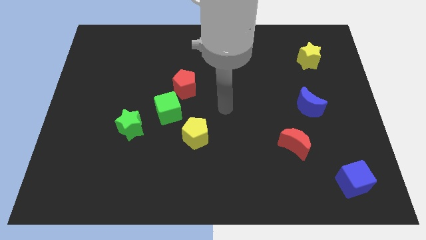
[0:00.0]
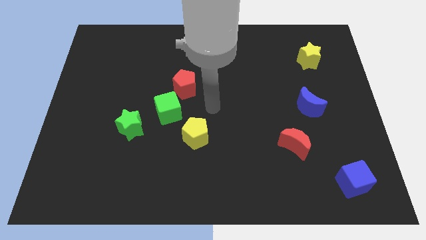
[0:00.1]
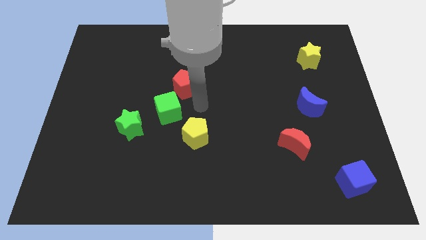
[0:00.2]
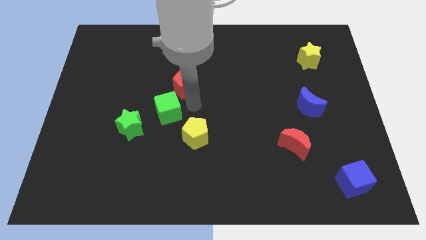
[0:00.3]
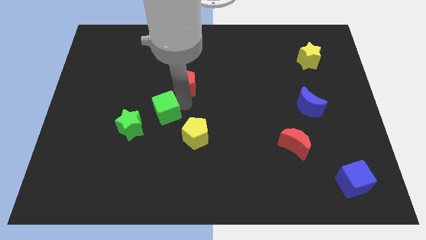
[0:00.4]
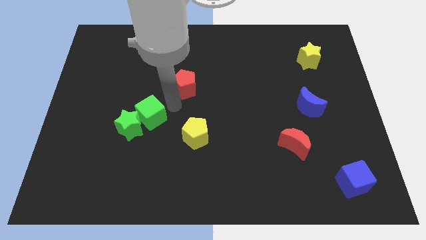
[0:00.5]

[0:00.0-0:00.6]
pull the red pentagon apart from the green cube

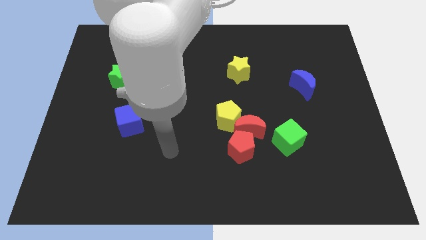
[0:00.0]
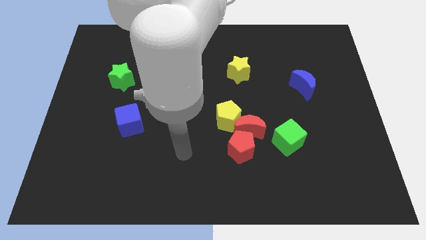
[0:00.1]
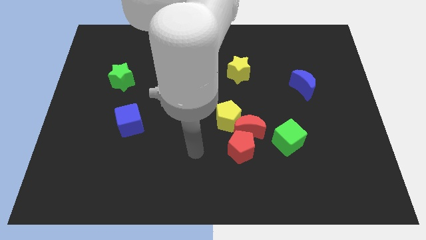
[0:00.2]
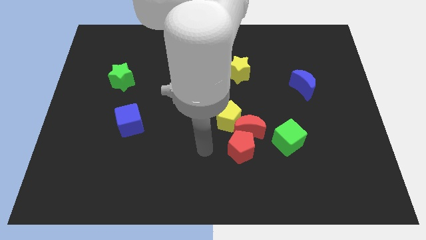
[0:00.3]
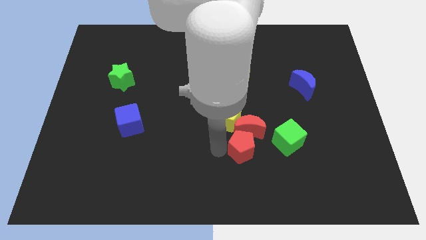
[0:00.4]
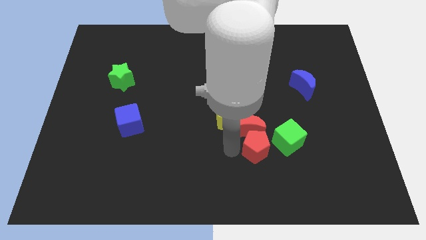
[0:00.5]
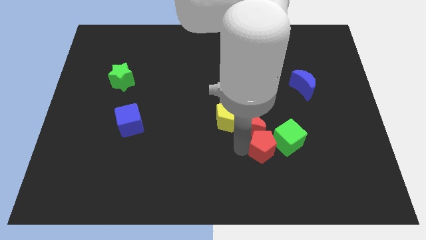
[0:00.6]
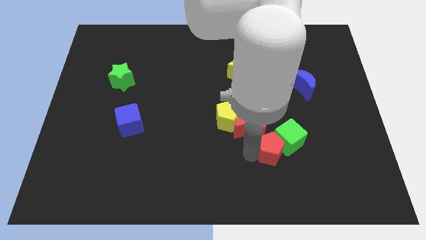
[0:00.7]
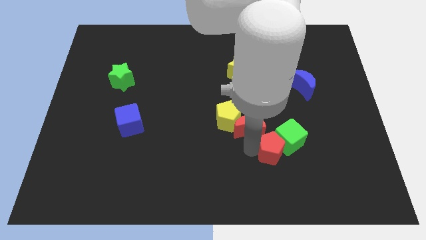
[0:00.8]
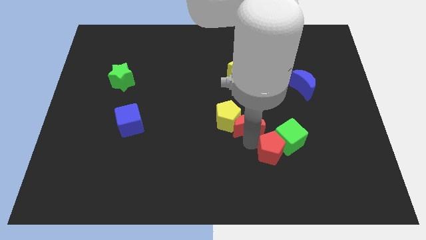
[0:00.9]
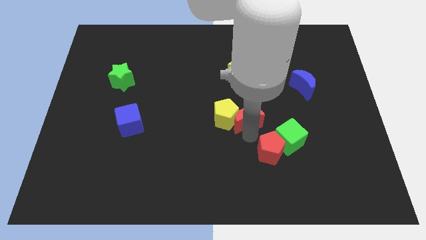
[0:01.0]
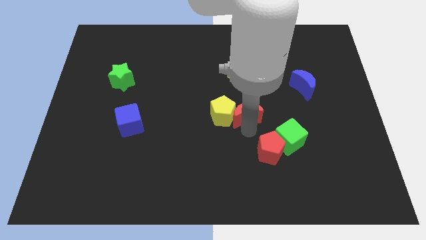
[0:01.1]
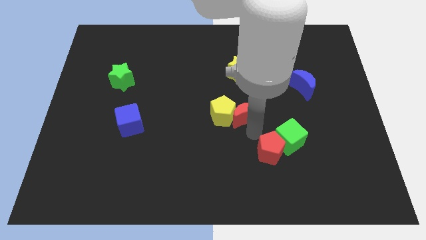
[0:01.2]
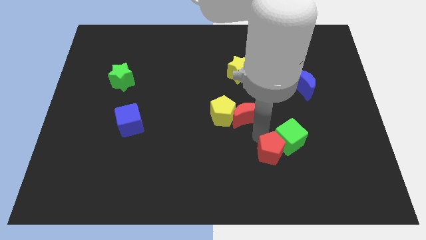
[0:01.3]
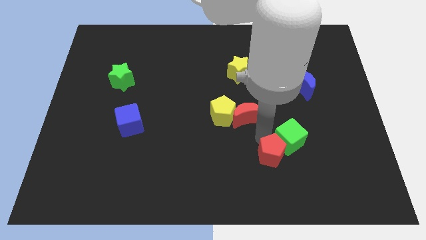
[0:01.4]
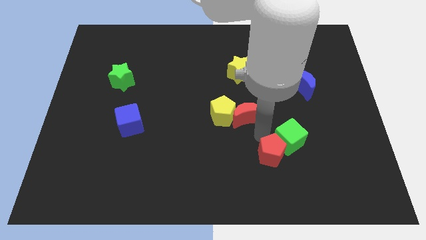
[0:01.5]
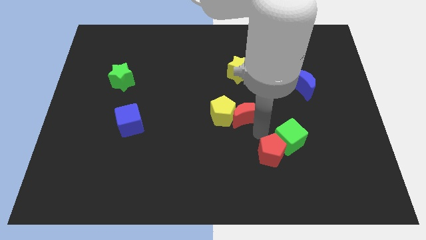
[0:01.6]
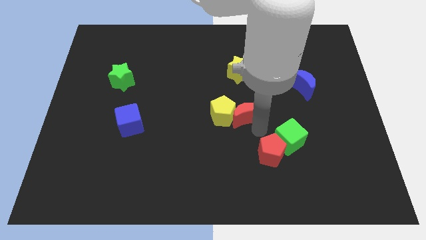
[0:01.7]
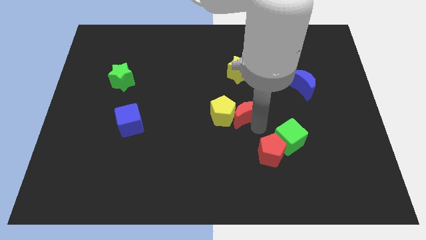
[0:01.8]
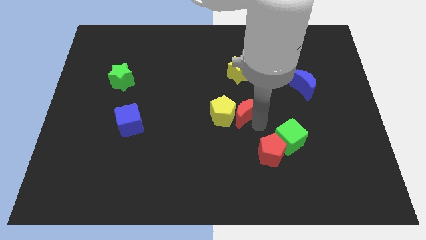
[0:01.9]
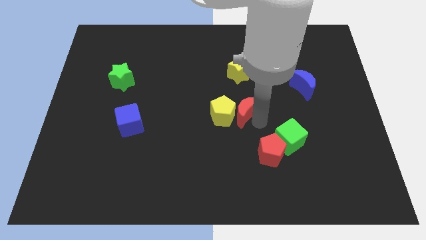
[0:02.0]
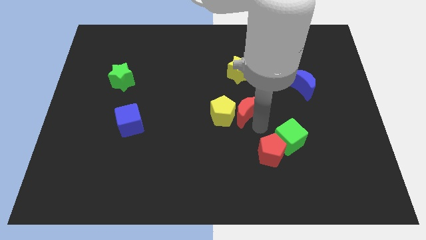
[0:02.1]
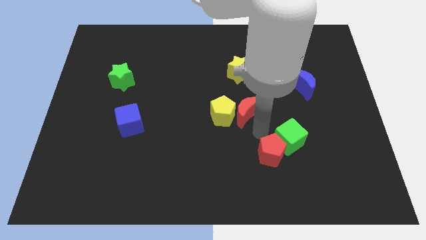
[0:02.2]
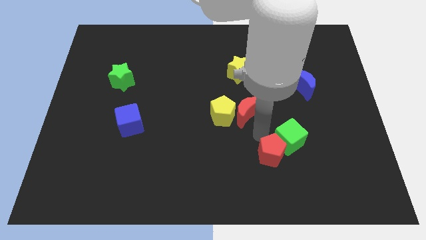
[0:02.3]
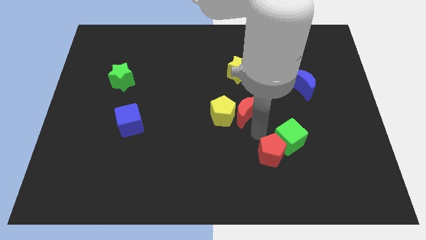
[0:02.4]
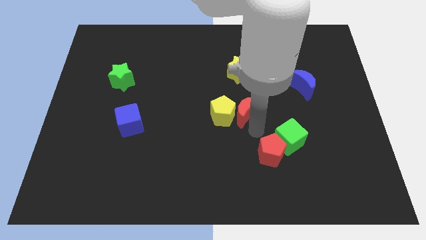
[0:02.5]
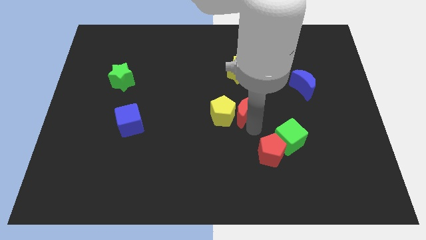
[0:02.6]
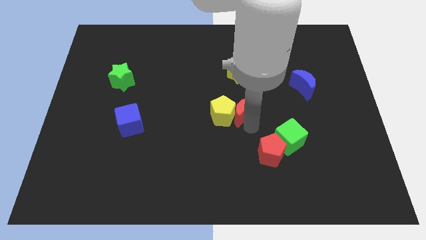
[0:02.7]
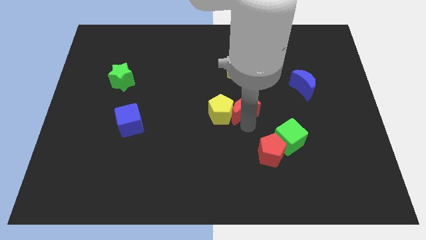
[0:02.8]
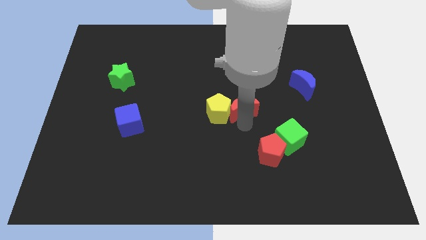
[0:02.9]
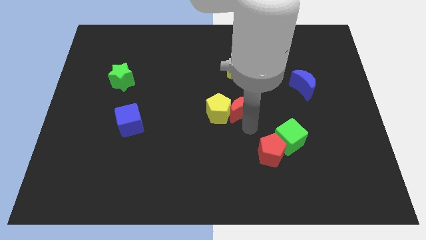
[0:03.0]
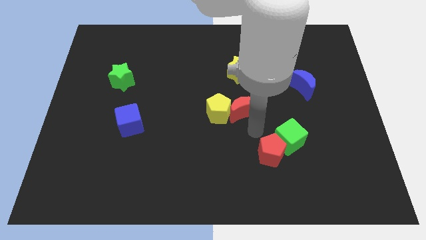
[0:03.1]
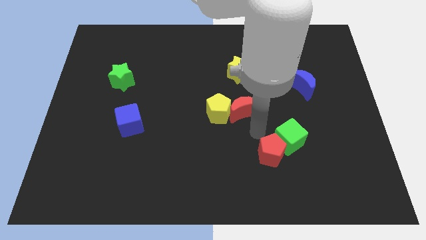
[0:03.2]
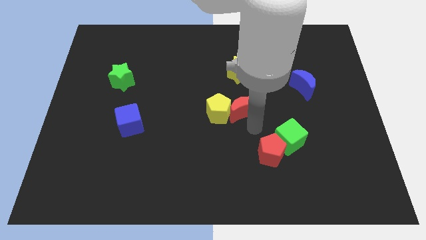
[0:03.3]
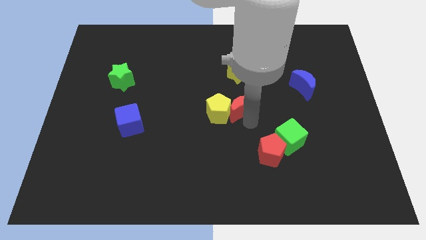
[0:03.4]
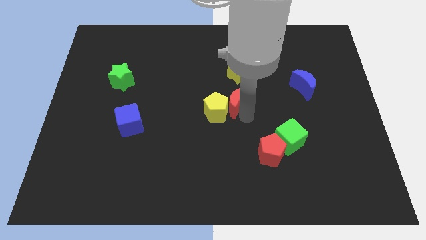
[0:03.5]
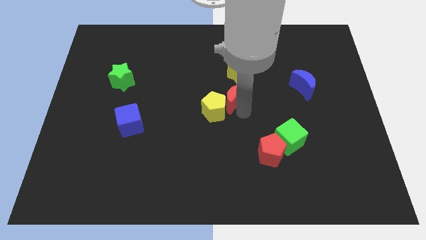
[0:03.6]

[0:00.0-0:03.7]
move the red moon away from the clump

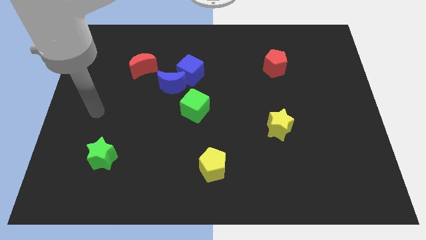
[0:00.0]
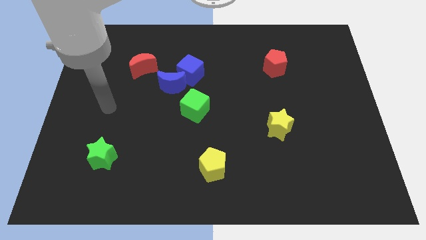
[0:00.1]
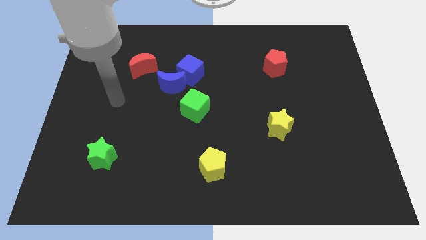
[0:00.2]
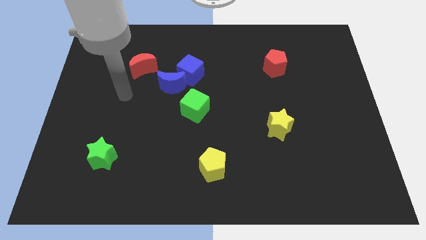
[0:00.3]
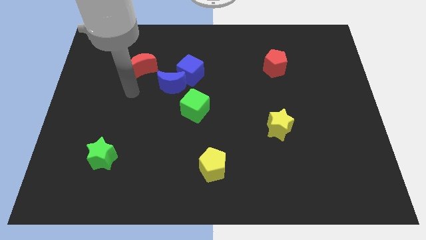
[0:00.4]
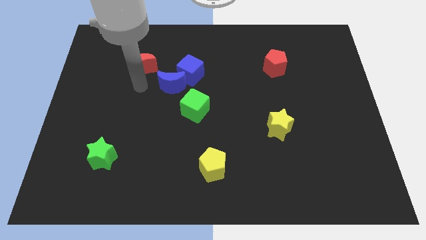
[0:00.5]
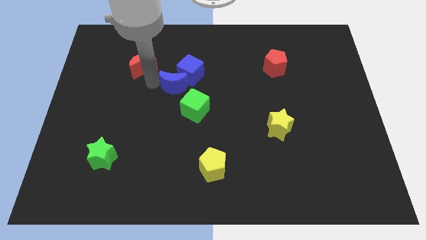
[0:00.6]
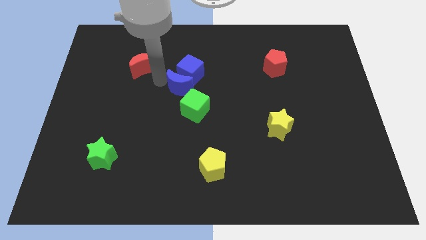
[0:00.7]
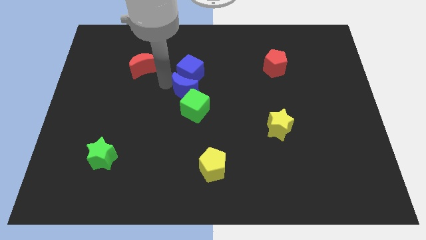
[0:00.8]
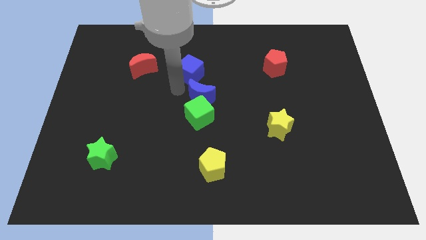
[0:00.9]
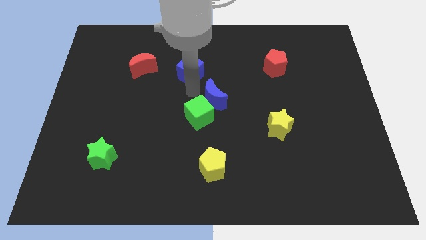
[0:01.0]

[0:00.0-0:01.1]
move the blue cube away from the blue moon

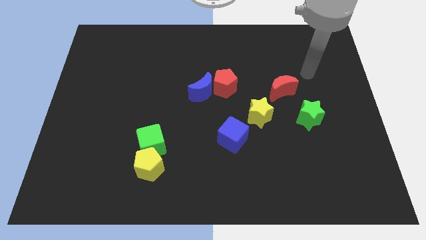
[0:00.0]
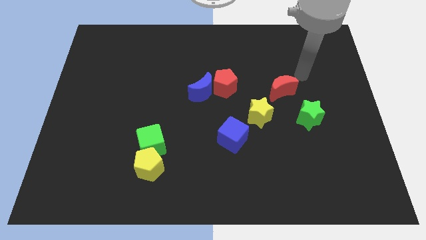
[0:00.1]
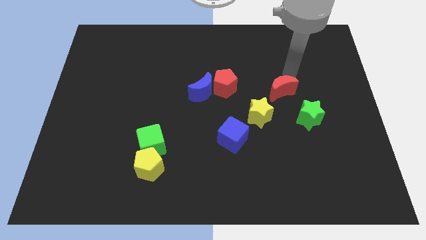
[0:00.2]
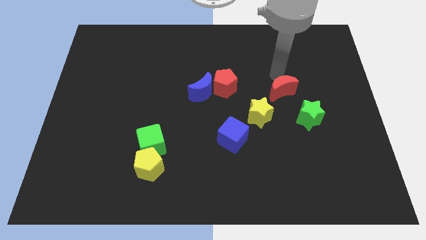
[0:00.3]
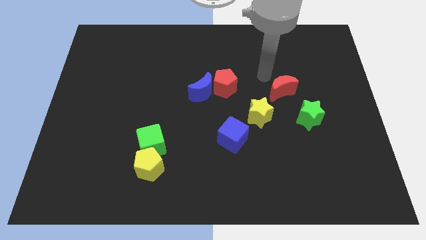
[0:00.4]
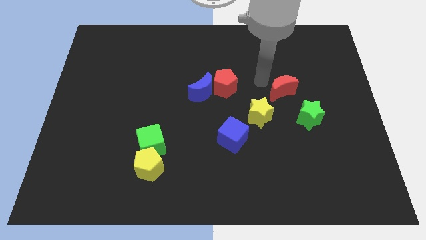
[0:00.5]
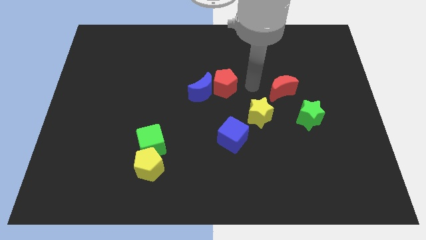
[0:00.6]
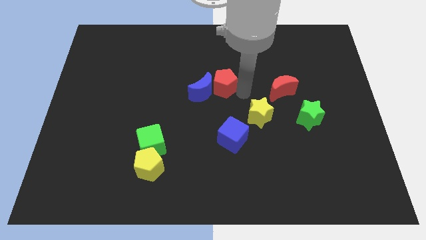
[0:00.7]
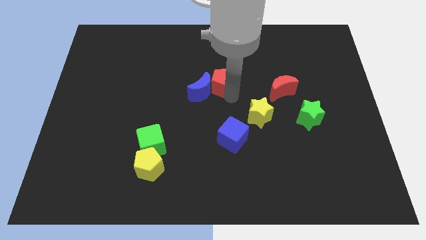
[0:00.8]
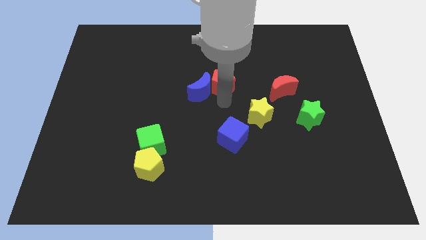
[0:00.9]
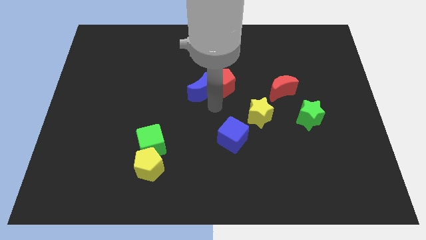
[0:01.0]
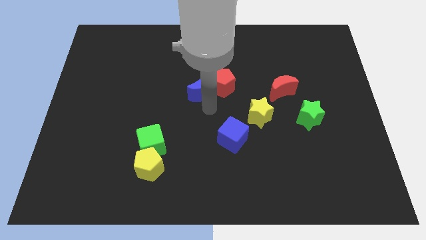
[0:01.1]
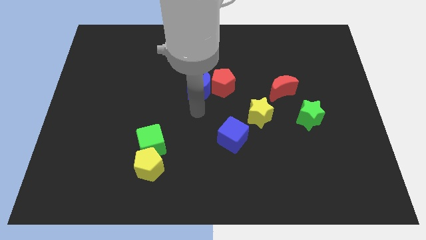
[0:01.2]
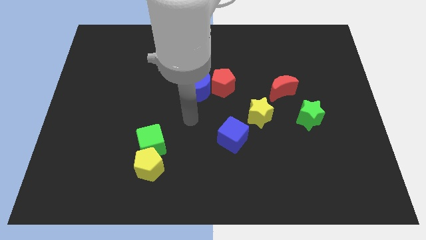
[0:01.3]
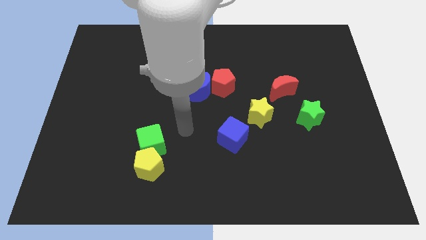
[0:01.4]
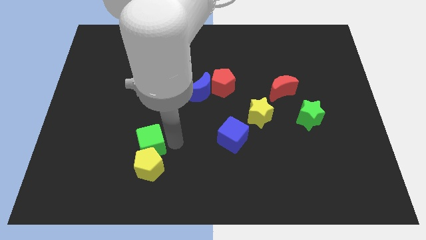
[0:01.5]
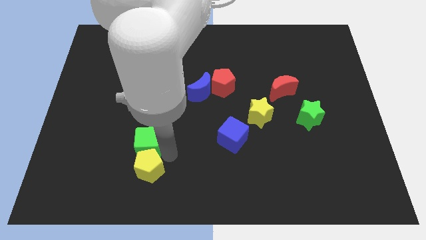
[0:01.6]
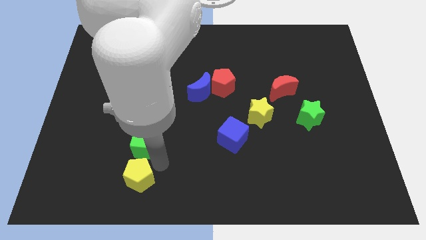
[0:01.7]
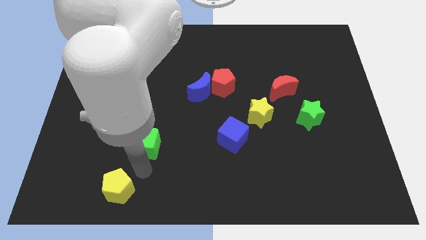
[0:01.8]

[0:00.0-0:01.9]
separate the green cube from the yellow pentagon

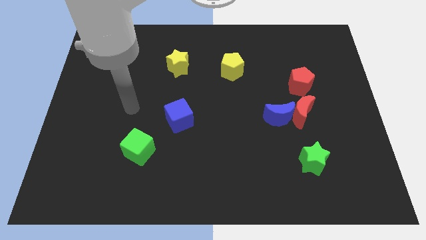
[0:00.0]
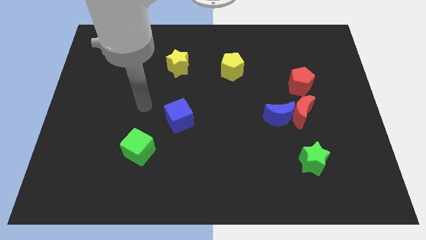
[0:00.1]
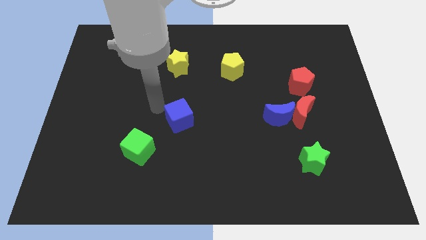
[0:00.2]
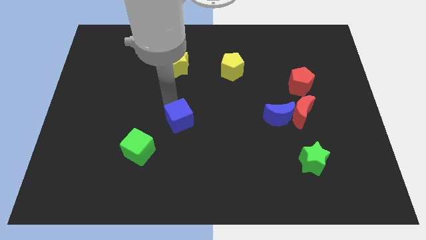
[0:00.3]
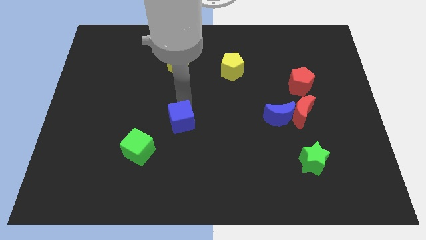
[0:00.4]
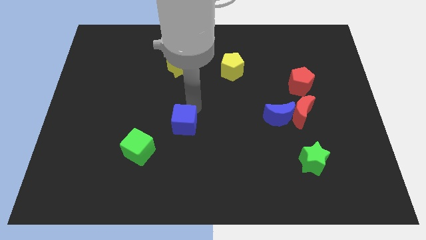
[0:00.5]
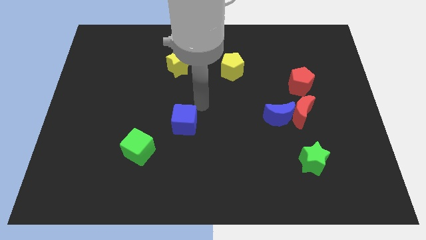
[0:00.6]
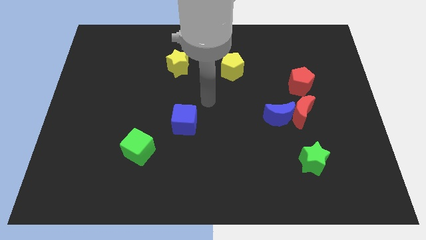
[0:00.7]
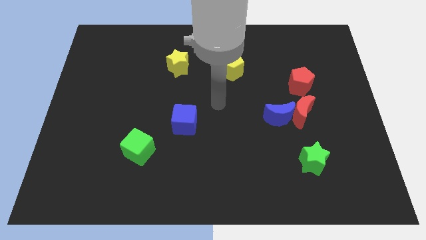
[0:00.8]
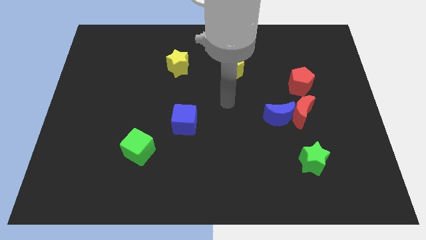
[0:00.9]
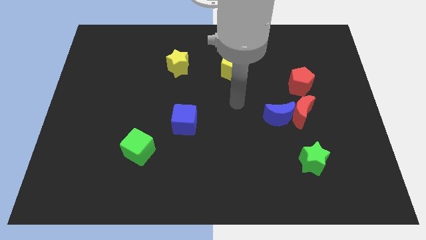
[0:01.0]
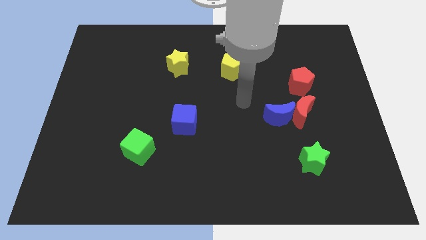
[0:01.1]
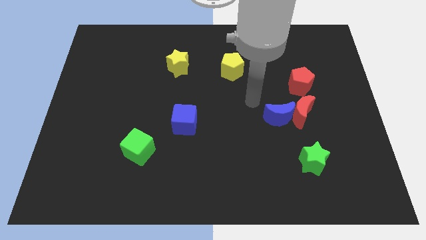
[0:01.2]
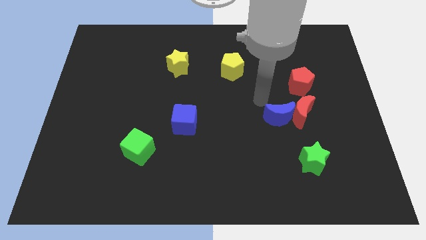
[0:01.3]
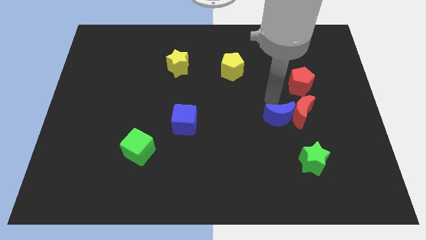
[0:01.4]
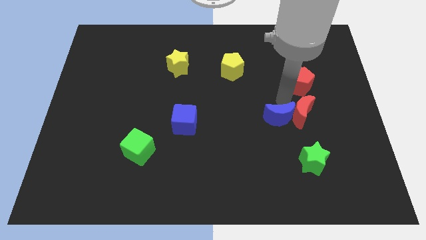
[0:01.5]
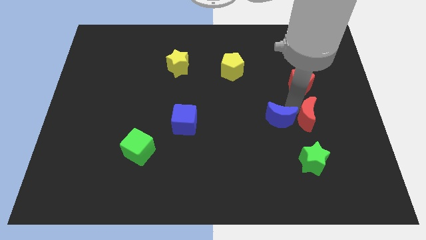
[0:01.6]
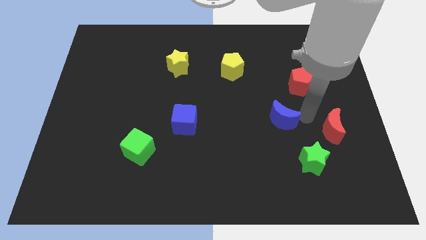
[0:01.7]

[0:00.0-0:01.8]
pull the blue moon apart from the red moon
